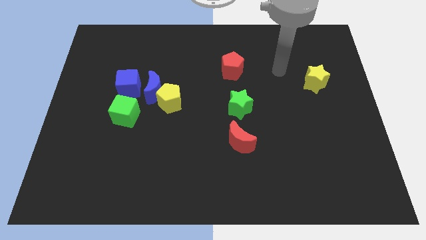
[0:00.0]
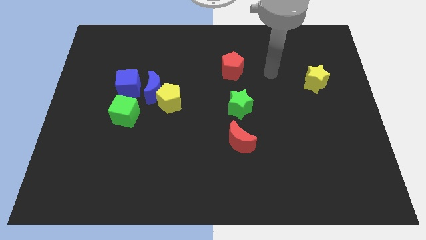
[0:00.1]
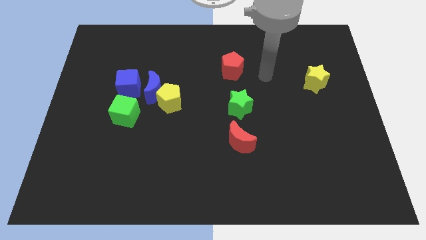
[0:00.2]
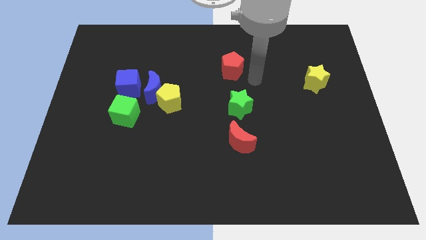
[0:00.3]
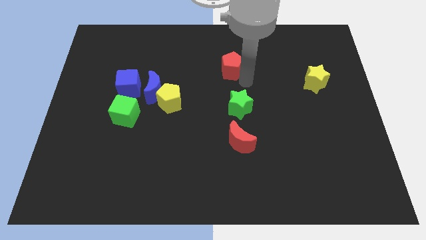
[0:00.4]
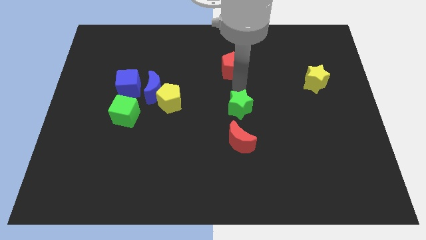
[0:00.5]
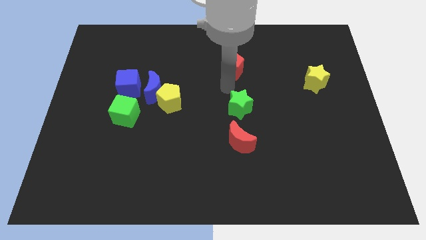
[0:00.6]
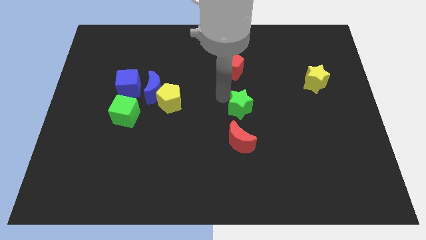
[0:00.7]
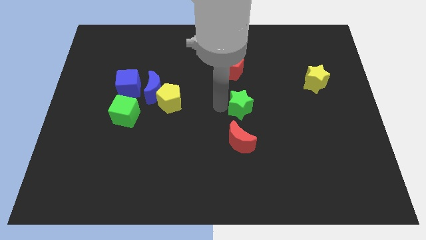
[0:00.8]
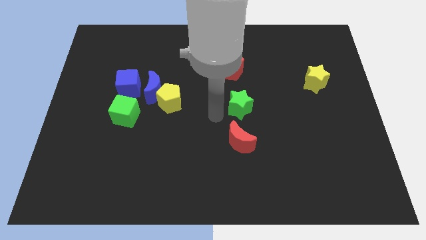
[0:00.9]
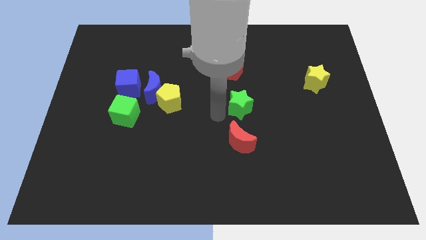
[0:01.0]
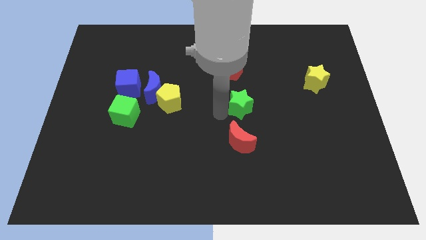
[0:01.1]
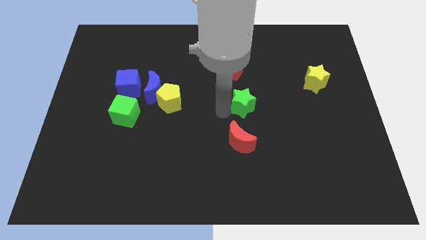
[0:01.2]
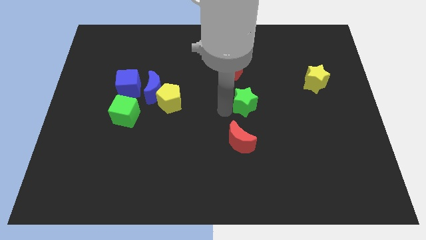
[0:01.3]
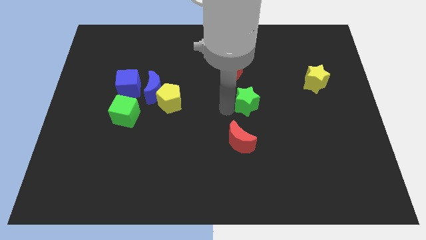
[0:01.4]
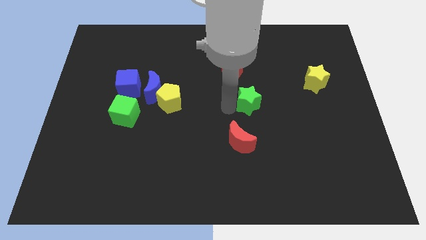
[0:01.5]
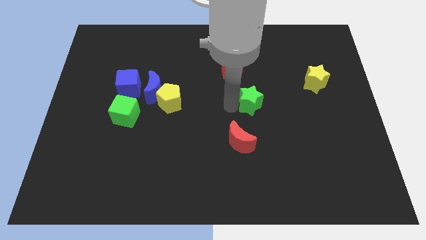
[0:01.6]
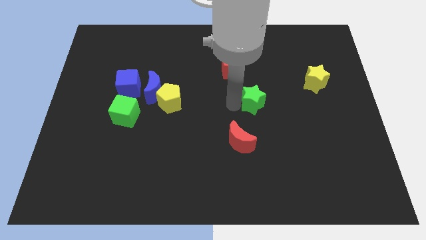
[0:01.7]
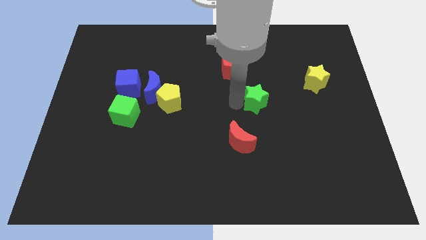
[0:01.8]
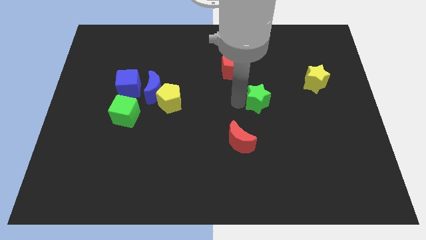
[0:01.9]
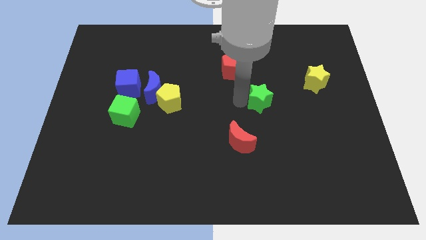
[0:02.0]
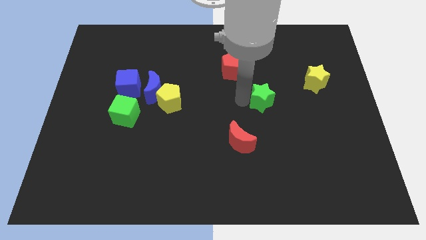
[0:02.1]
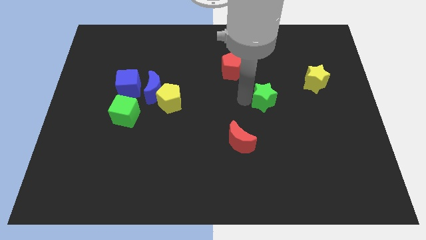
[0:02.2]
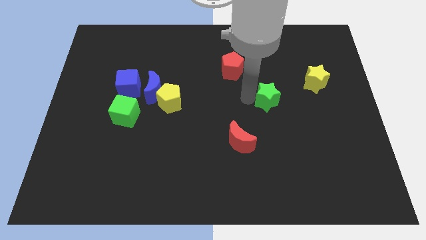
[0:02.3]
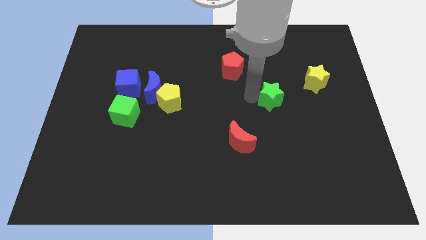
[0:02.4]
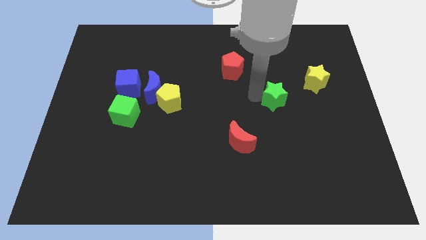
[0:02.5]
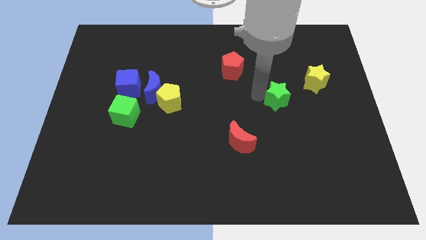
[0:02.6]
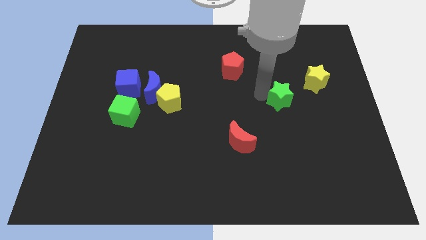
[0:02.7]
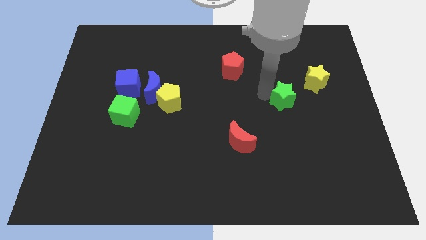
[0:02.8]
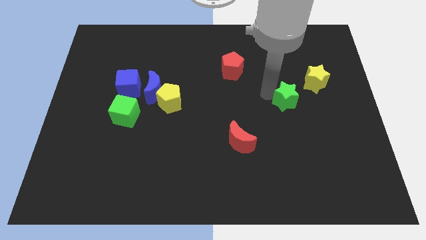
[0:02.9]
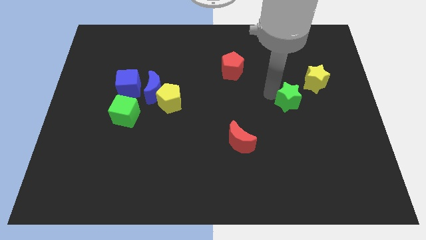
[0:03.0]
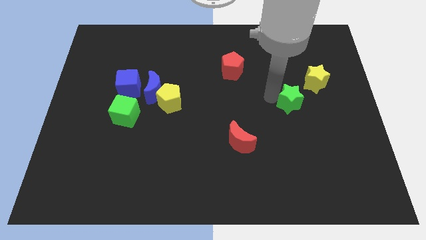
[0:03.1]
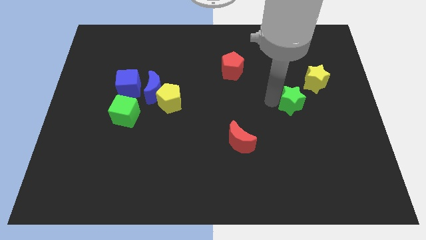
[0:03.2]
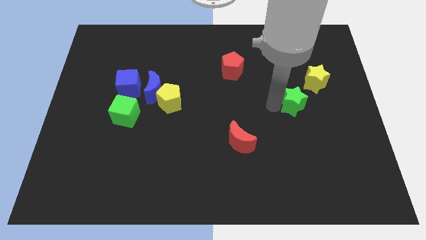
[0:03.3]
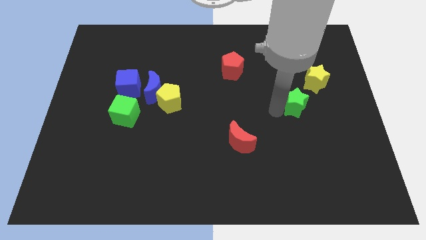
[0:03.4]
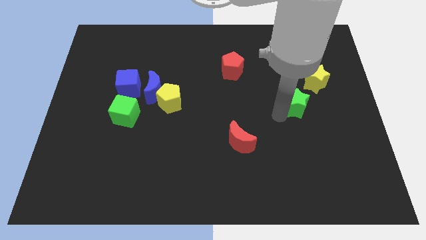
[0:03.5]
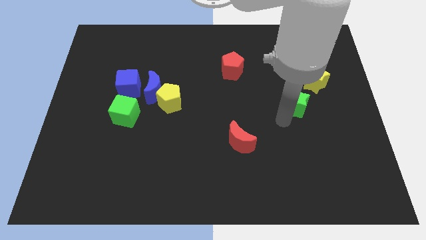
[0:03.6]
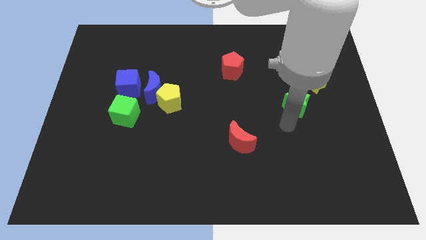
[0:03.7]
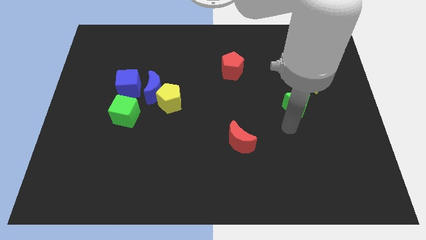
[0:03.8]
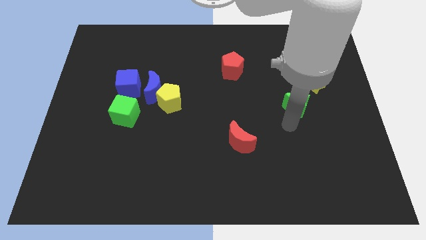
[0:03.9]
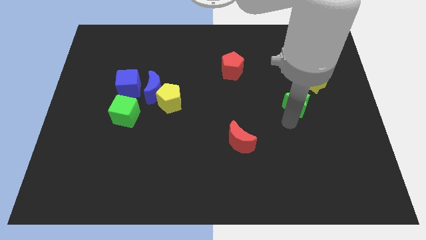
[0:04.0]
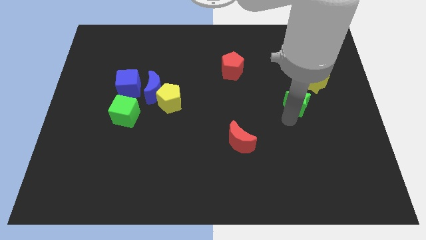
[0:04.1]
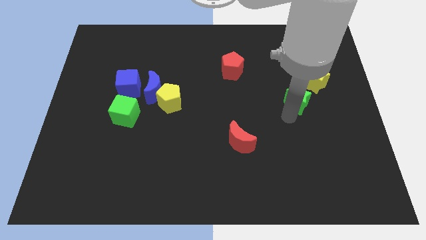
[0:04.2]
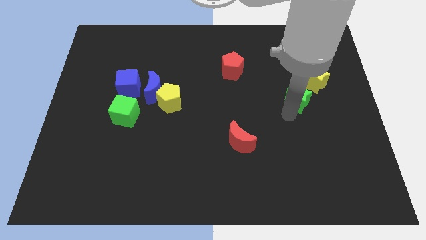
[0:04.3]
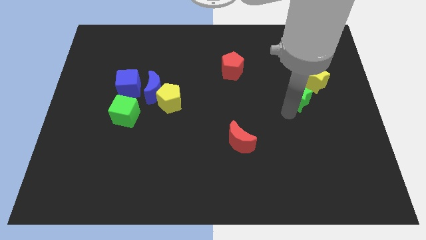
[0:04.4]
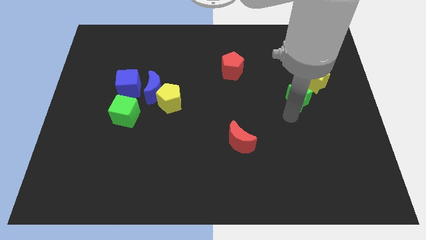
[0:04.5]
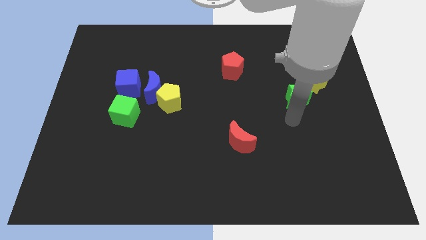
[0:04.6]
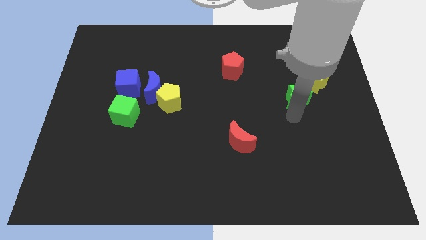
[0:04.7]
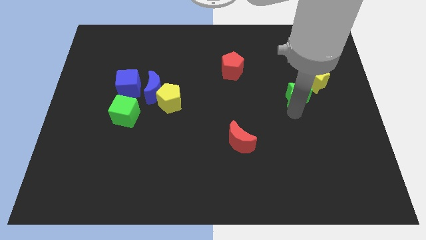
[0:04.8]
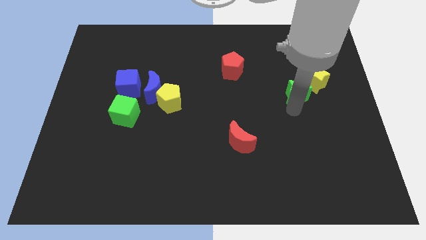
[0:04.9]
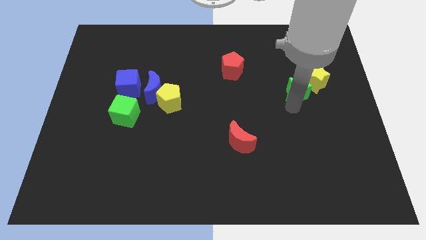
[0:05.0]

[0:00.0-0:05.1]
slide the green star close to the yellow star

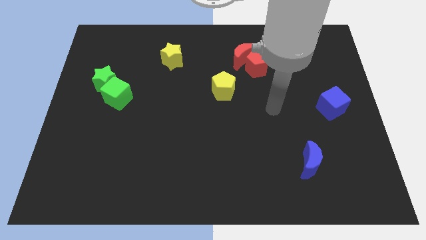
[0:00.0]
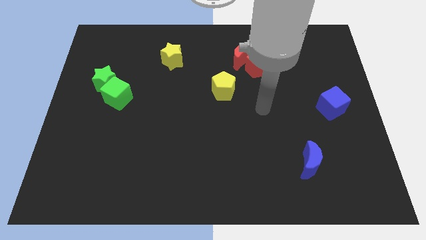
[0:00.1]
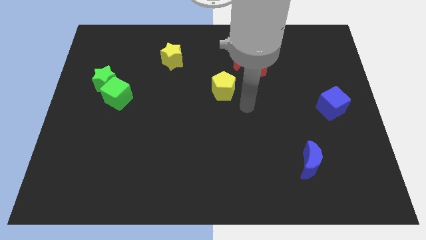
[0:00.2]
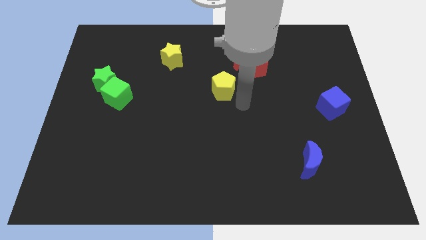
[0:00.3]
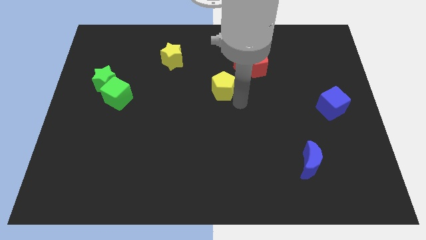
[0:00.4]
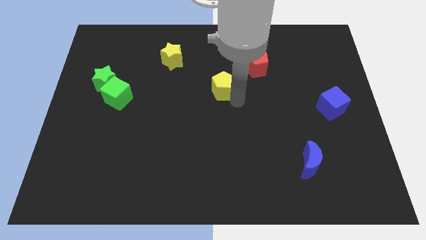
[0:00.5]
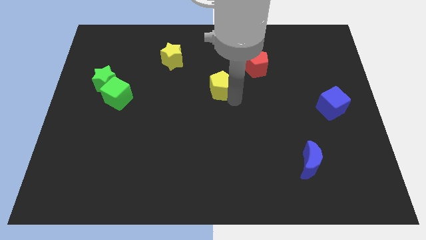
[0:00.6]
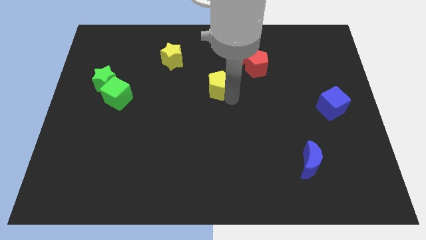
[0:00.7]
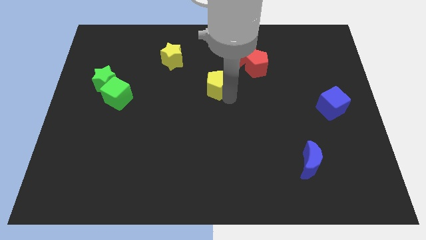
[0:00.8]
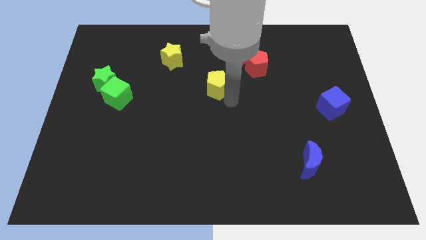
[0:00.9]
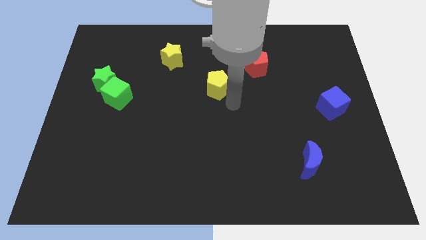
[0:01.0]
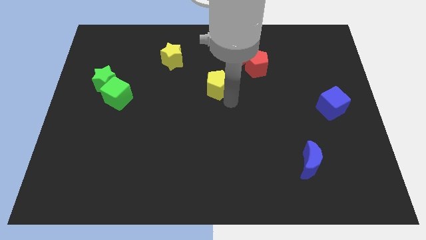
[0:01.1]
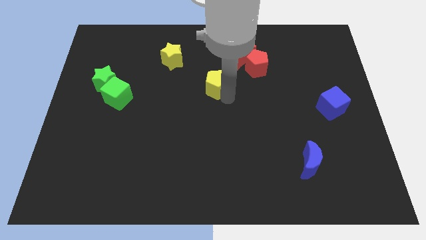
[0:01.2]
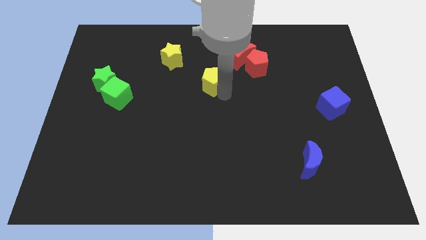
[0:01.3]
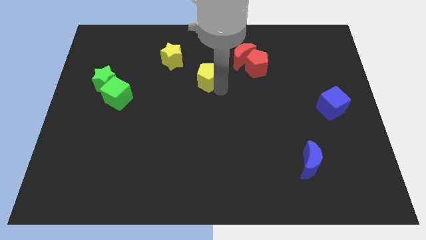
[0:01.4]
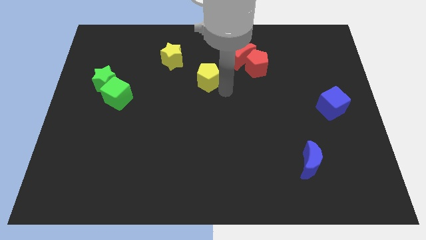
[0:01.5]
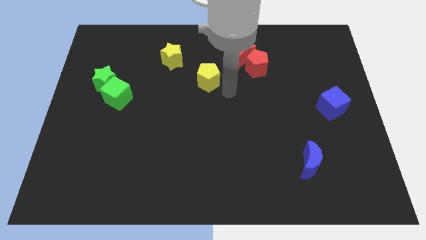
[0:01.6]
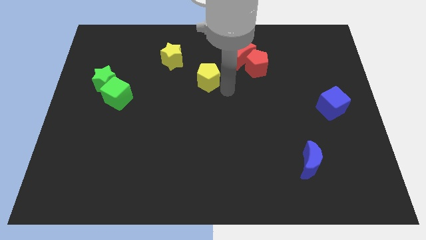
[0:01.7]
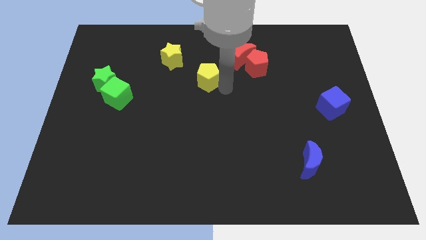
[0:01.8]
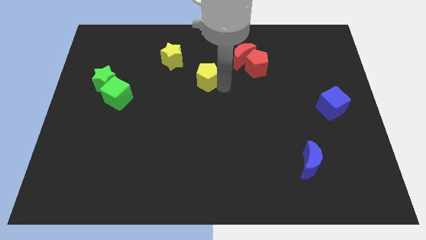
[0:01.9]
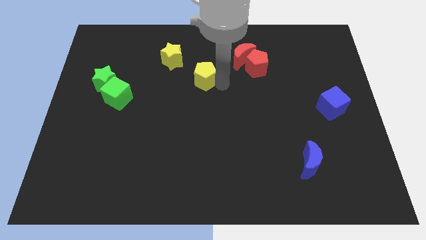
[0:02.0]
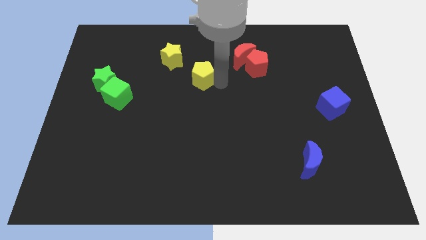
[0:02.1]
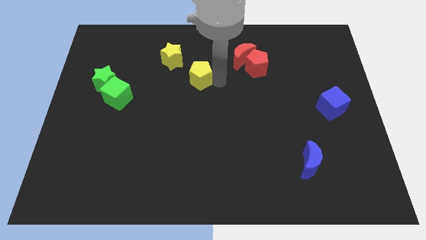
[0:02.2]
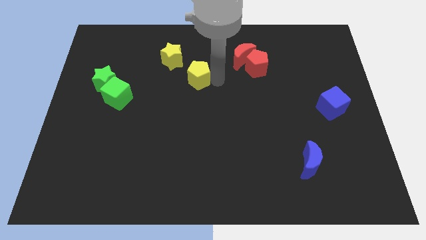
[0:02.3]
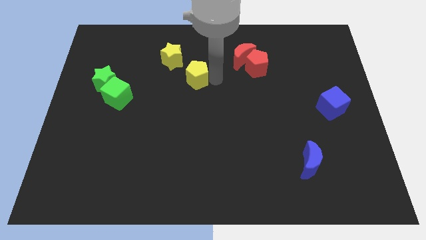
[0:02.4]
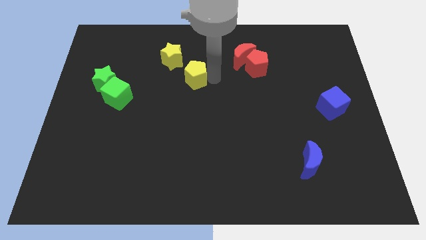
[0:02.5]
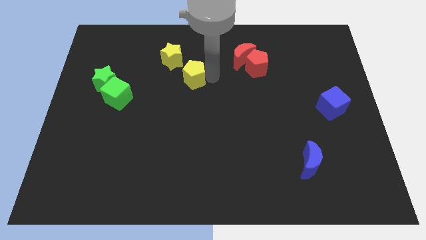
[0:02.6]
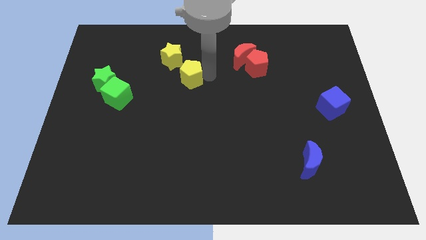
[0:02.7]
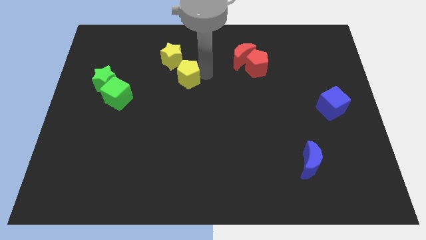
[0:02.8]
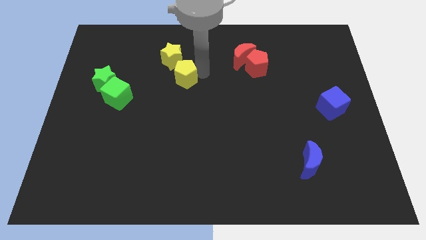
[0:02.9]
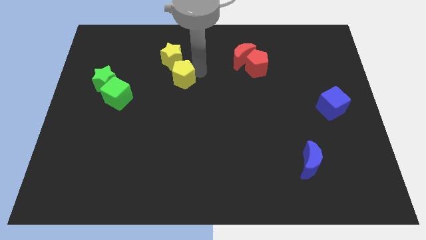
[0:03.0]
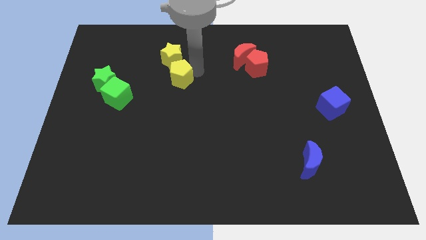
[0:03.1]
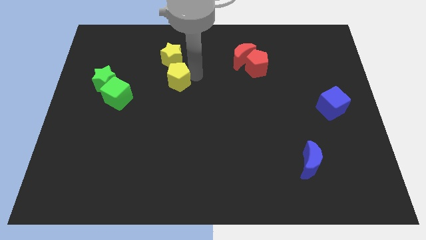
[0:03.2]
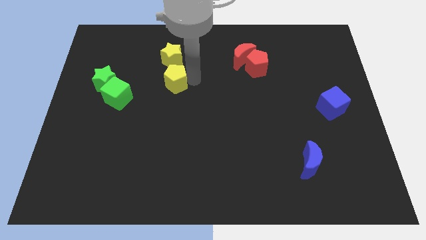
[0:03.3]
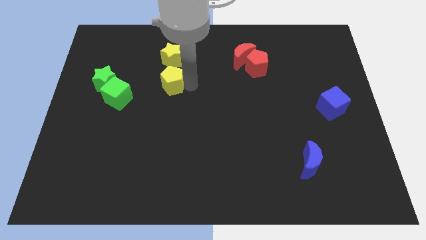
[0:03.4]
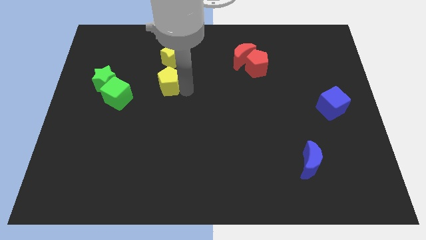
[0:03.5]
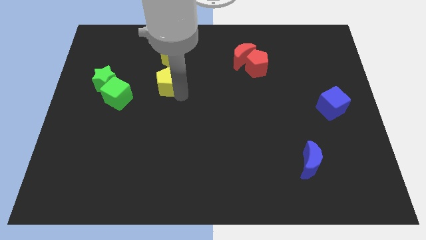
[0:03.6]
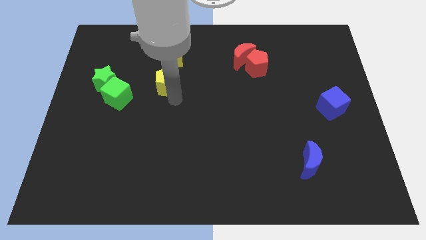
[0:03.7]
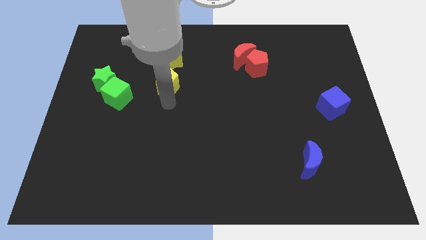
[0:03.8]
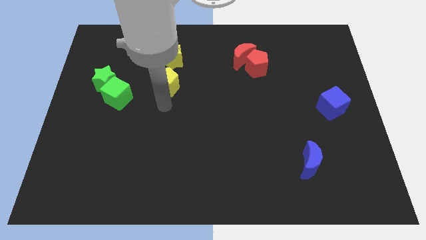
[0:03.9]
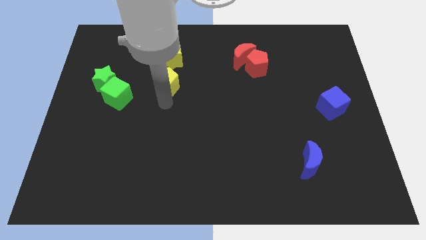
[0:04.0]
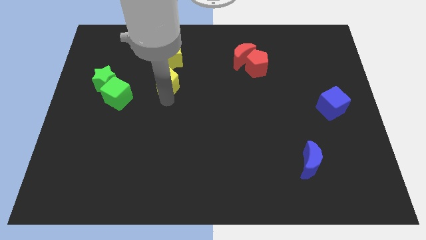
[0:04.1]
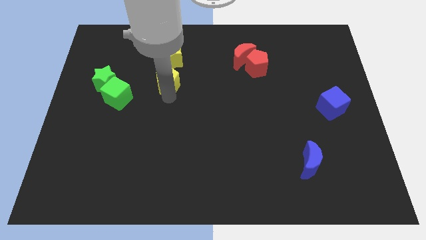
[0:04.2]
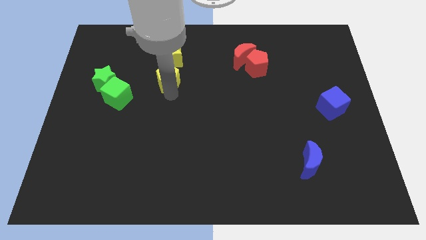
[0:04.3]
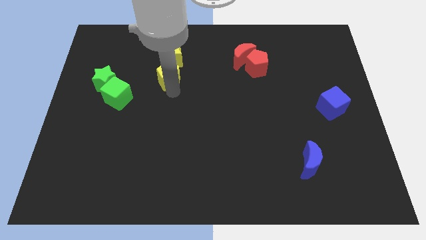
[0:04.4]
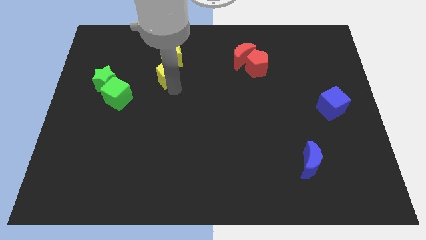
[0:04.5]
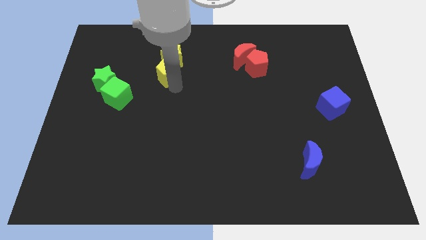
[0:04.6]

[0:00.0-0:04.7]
move the yellow pentagon close to the yellow star
